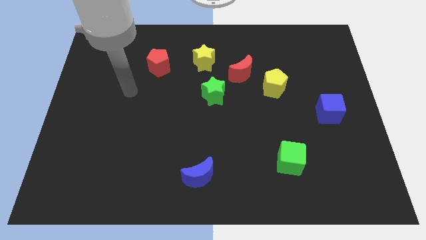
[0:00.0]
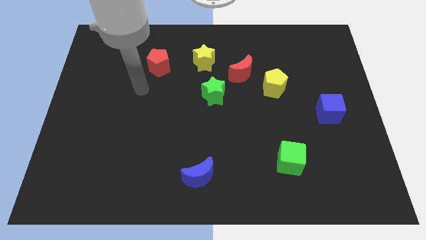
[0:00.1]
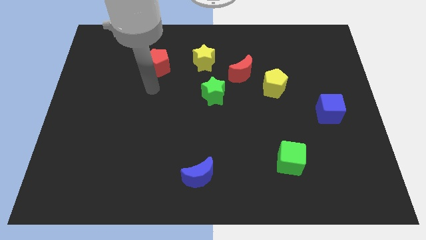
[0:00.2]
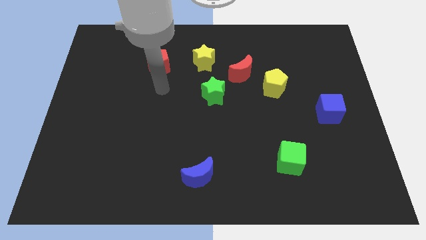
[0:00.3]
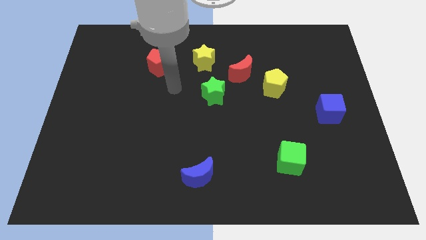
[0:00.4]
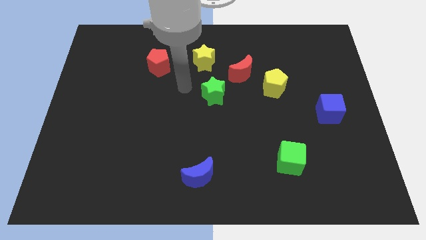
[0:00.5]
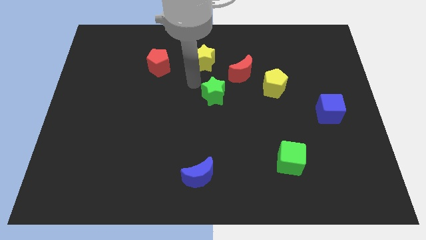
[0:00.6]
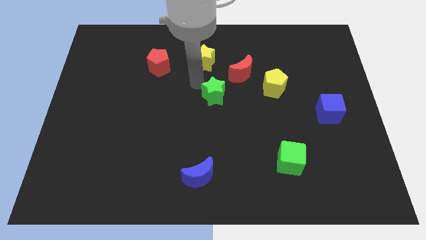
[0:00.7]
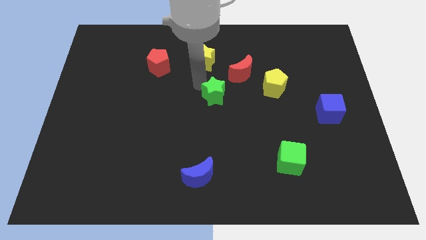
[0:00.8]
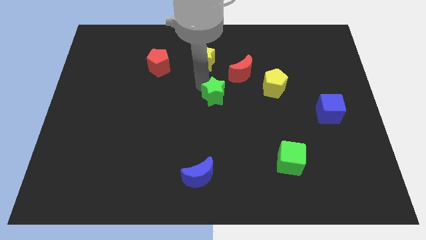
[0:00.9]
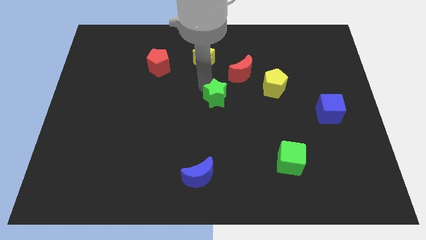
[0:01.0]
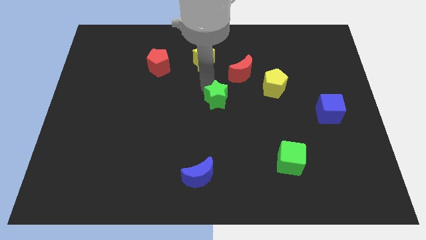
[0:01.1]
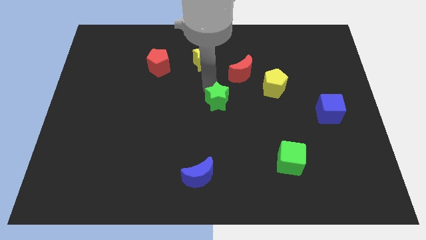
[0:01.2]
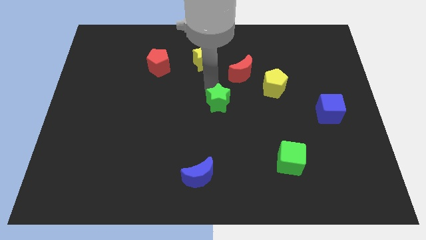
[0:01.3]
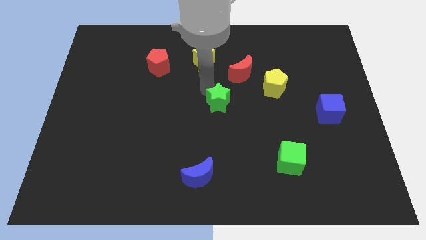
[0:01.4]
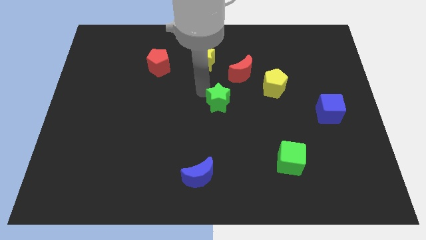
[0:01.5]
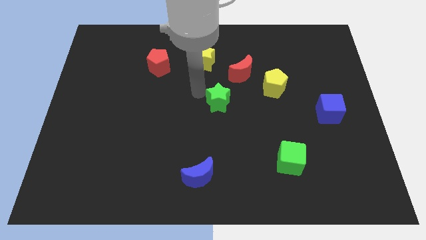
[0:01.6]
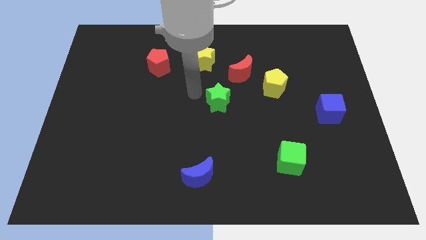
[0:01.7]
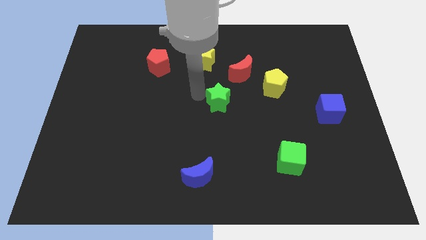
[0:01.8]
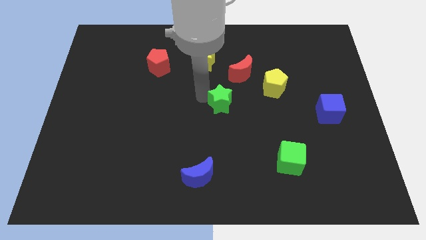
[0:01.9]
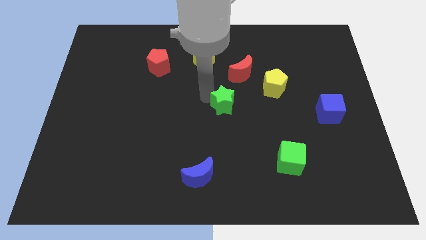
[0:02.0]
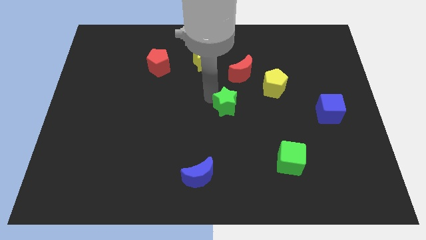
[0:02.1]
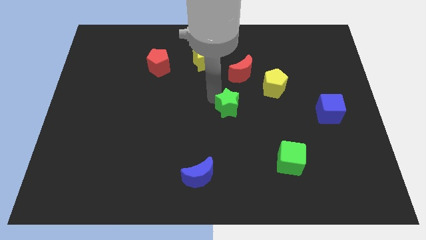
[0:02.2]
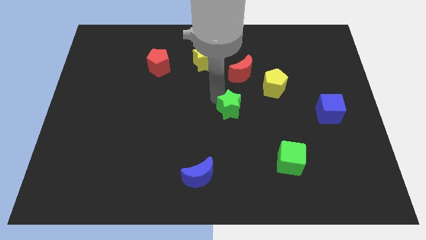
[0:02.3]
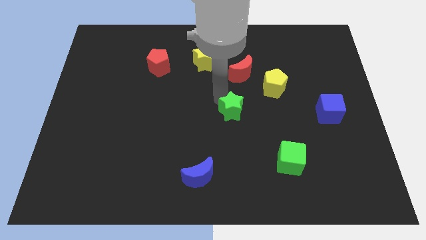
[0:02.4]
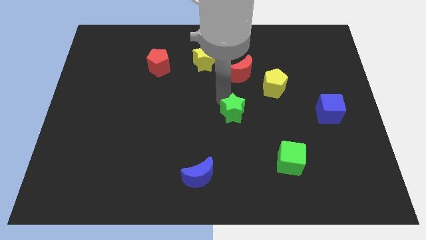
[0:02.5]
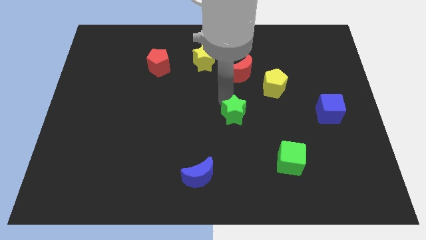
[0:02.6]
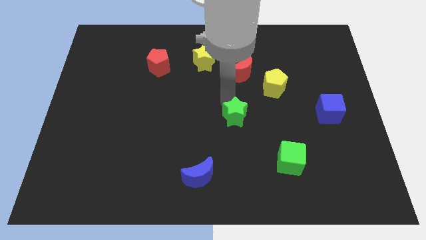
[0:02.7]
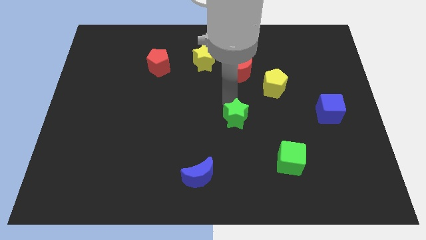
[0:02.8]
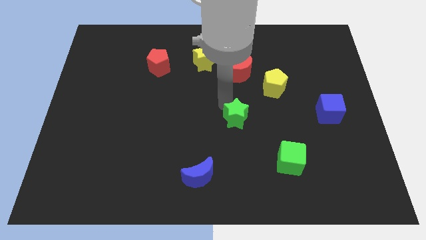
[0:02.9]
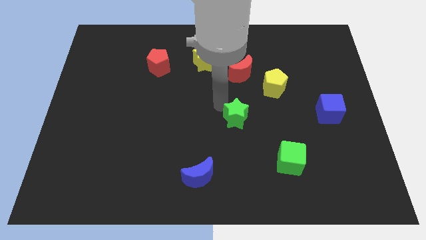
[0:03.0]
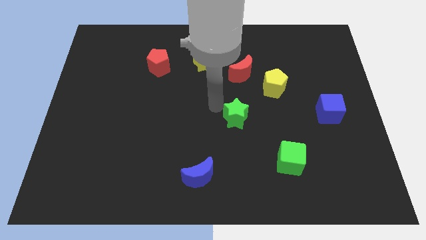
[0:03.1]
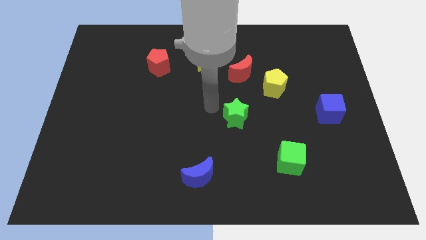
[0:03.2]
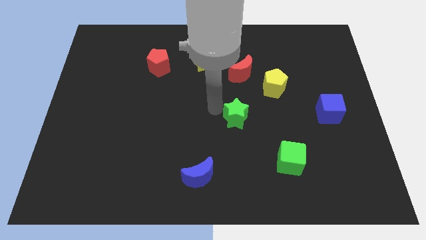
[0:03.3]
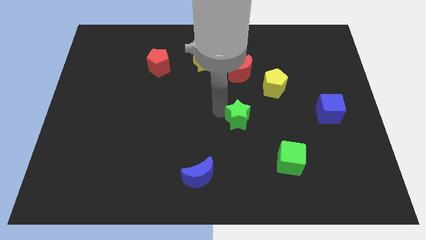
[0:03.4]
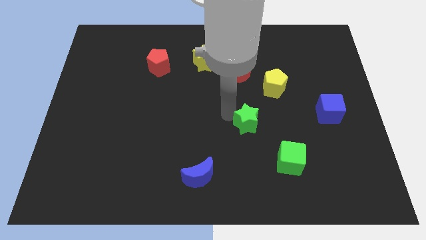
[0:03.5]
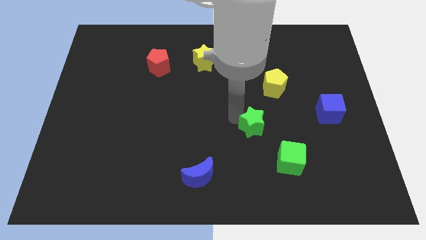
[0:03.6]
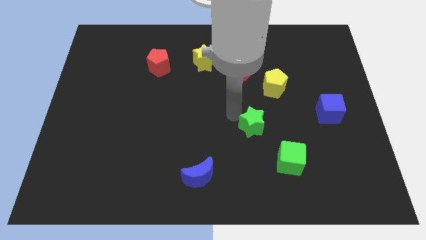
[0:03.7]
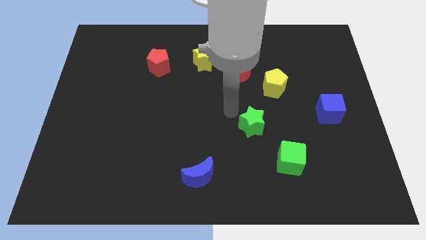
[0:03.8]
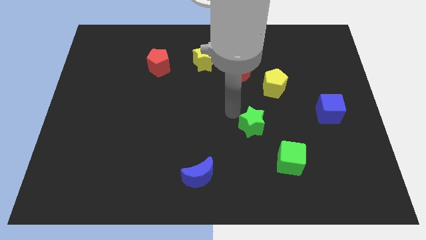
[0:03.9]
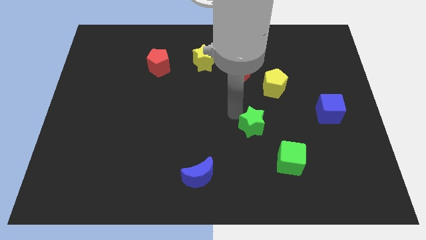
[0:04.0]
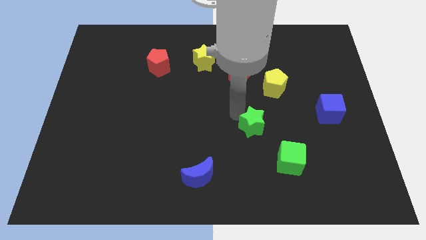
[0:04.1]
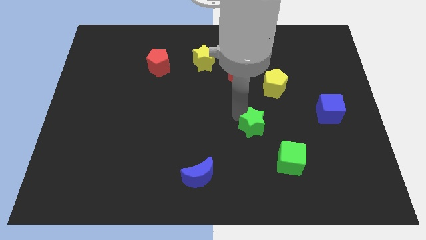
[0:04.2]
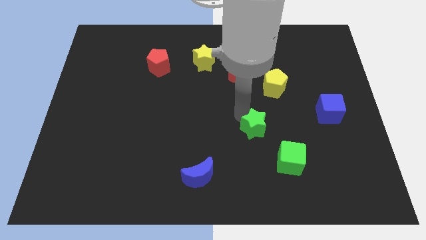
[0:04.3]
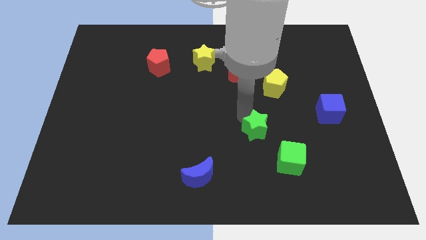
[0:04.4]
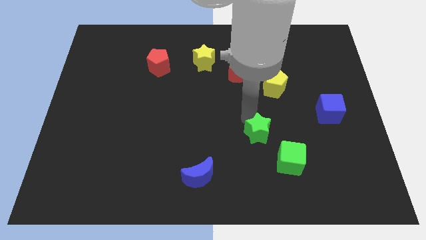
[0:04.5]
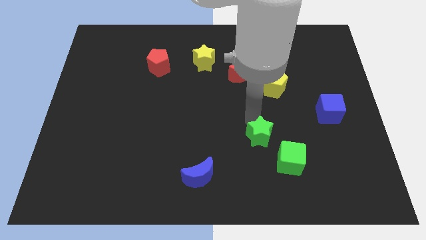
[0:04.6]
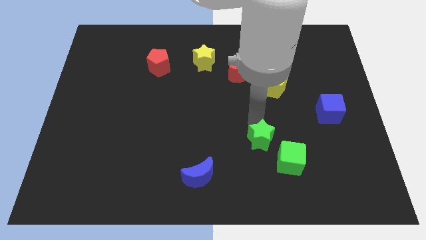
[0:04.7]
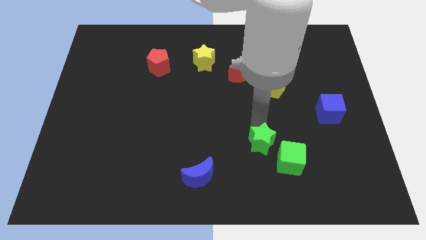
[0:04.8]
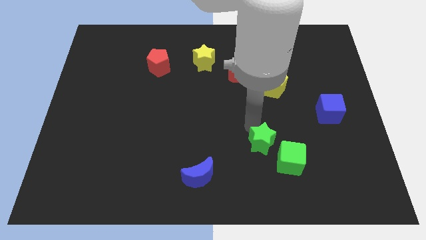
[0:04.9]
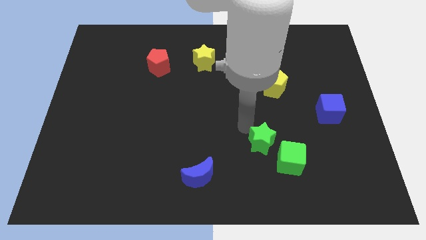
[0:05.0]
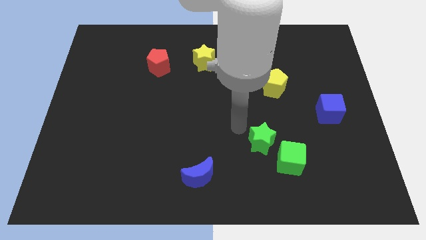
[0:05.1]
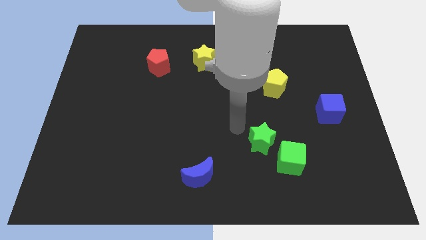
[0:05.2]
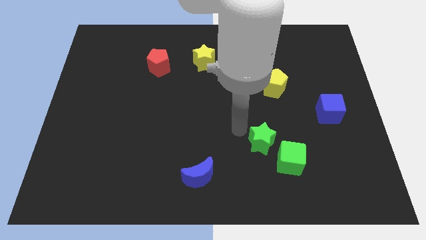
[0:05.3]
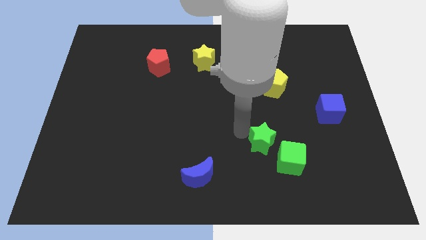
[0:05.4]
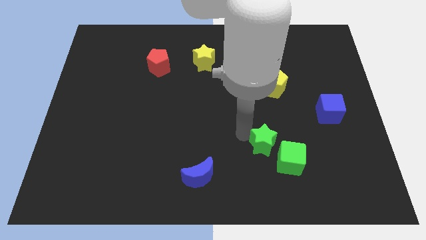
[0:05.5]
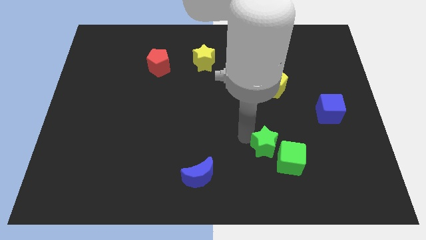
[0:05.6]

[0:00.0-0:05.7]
put the green star close to the green cube

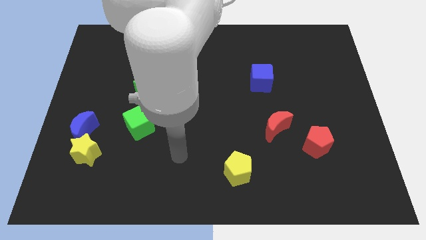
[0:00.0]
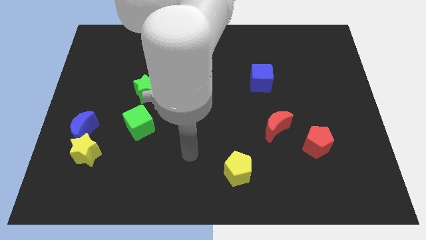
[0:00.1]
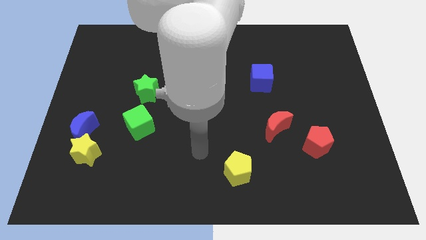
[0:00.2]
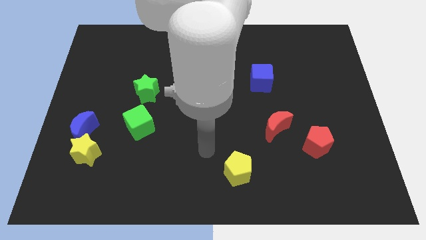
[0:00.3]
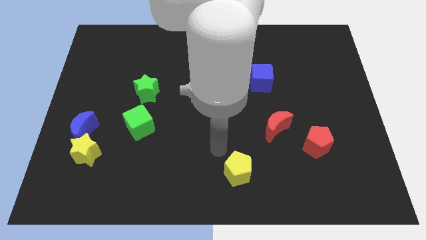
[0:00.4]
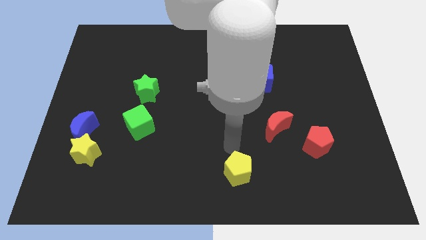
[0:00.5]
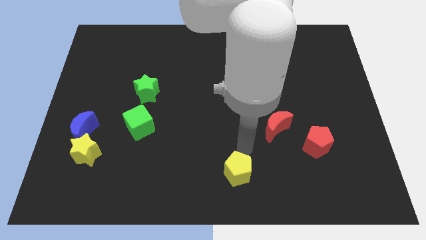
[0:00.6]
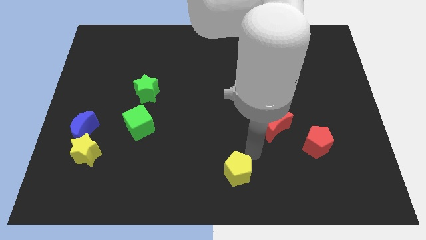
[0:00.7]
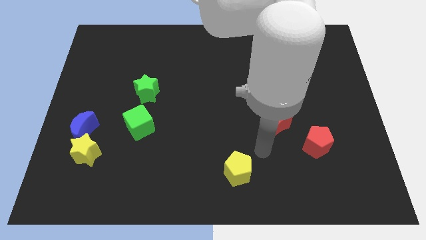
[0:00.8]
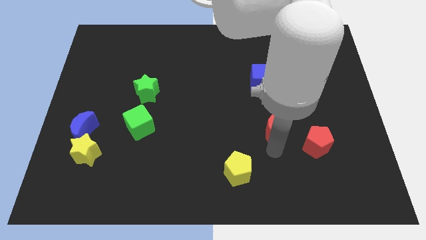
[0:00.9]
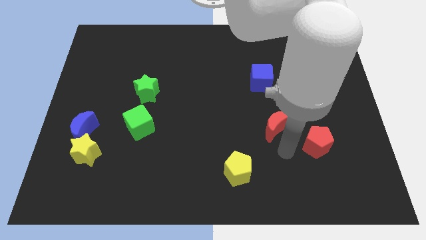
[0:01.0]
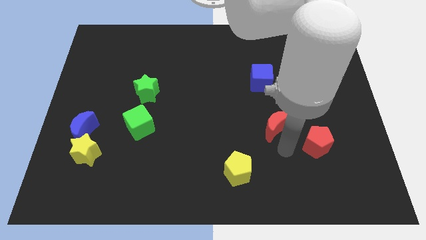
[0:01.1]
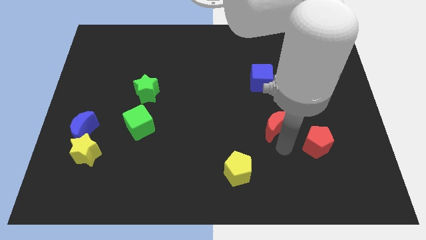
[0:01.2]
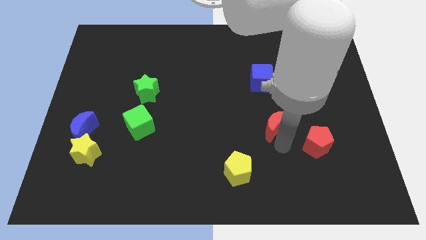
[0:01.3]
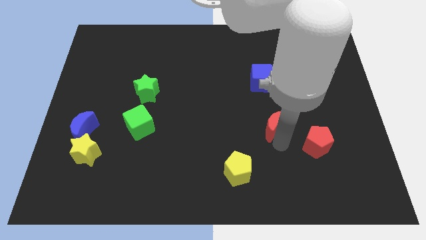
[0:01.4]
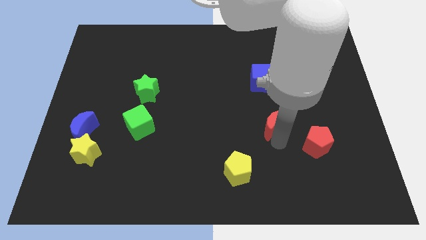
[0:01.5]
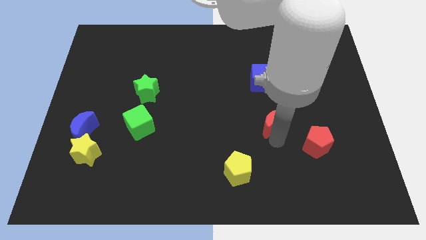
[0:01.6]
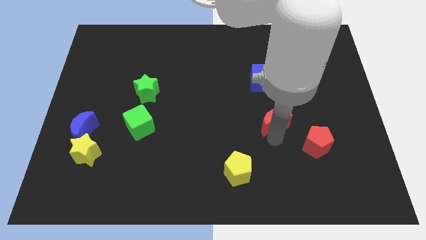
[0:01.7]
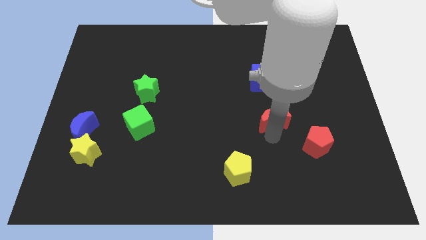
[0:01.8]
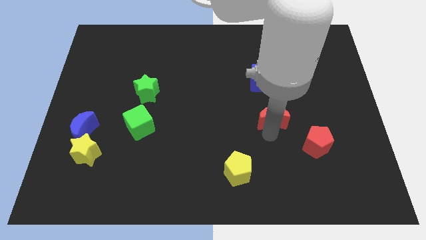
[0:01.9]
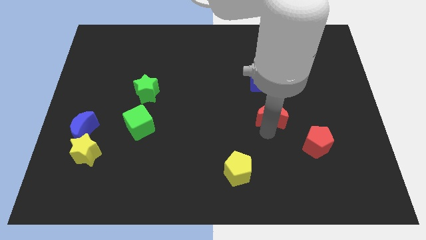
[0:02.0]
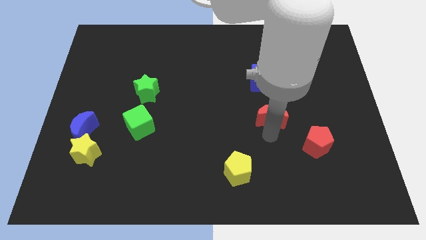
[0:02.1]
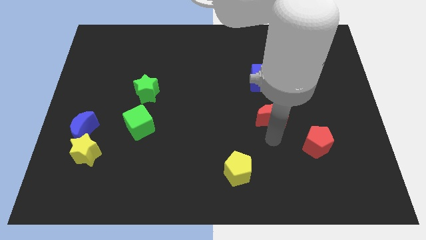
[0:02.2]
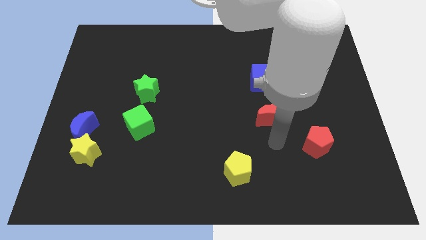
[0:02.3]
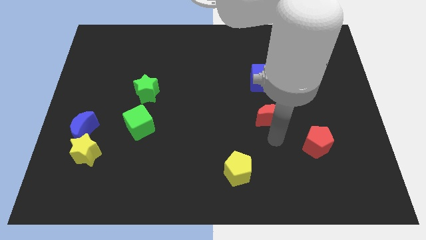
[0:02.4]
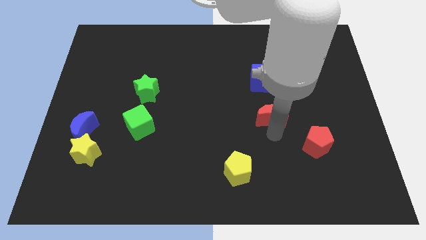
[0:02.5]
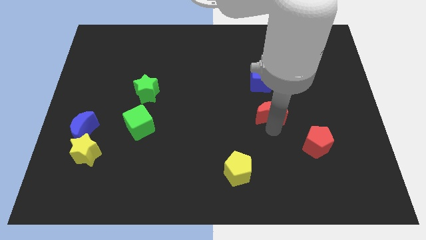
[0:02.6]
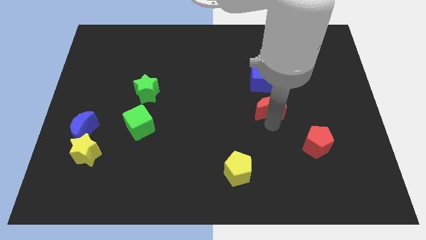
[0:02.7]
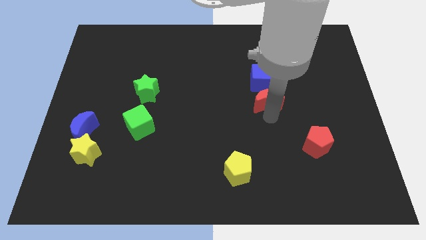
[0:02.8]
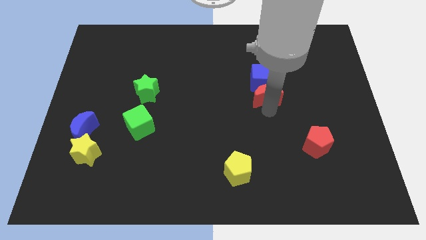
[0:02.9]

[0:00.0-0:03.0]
put the red moon next to the blue cube
